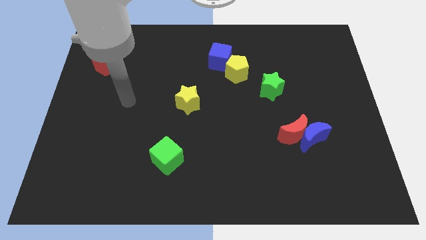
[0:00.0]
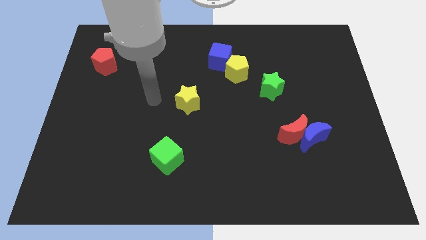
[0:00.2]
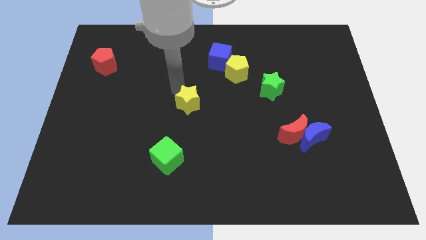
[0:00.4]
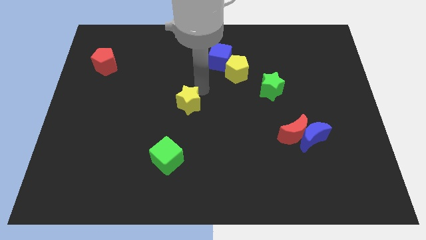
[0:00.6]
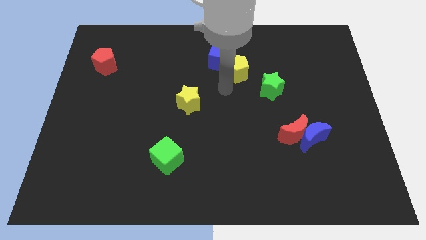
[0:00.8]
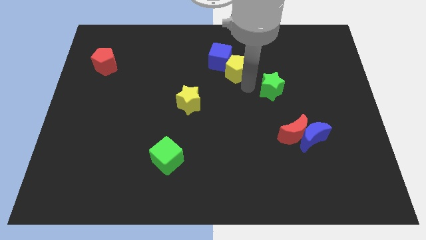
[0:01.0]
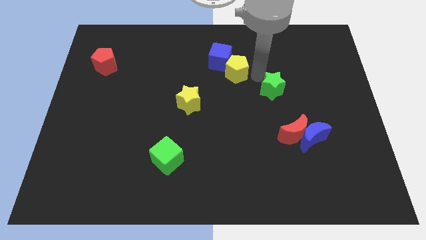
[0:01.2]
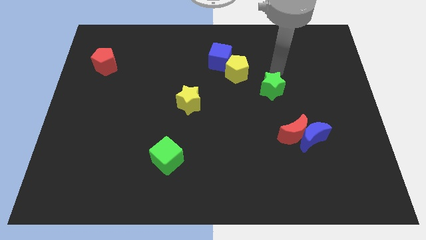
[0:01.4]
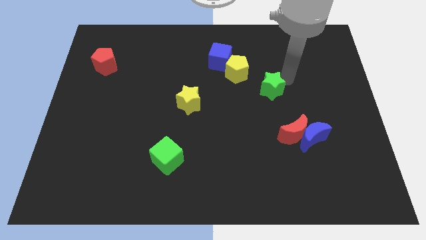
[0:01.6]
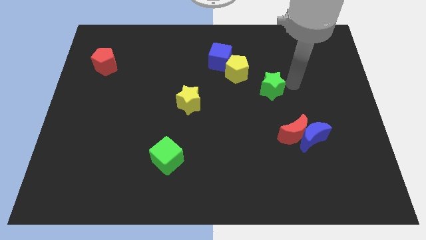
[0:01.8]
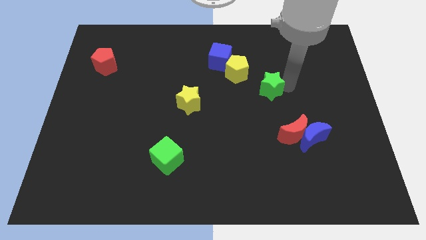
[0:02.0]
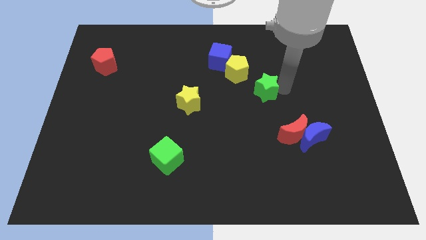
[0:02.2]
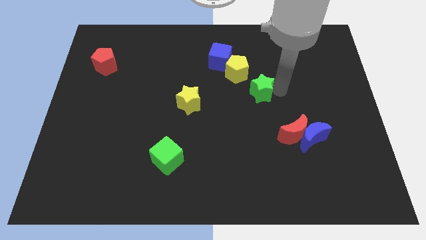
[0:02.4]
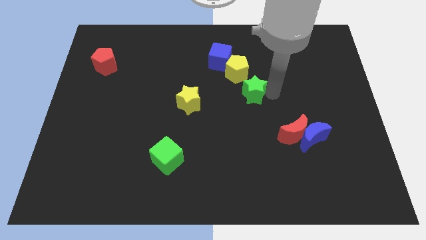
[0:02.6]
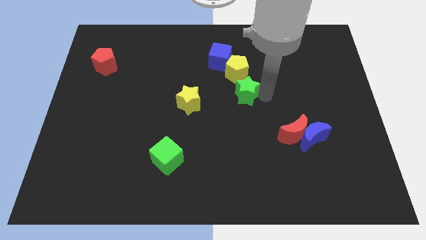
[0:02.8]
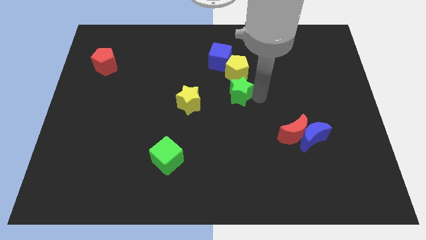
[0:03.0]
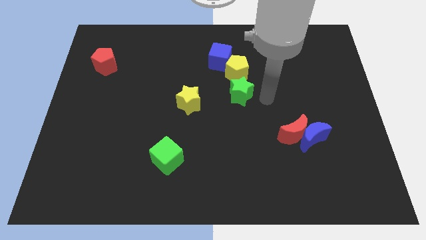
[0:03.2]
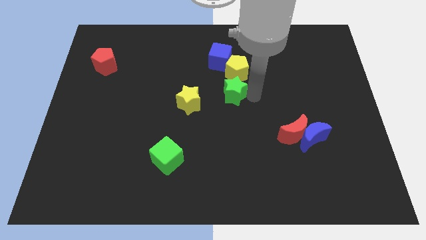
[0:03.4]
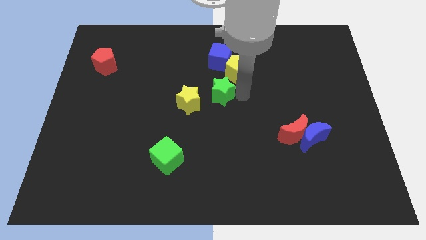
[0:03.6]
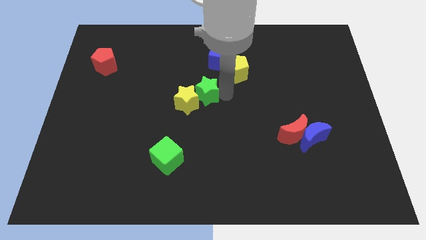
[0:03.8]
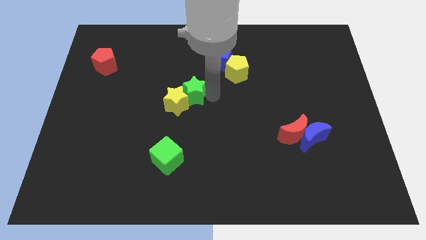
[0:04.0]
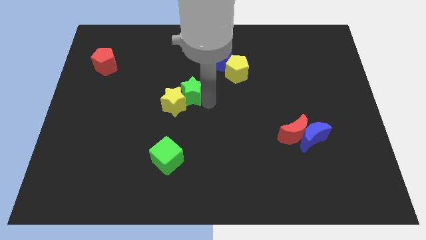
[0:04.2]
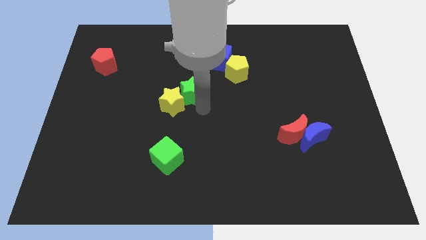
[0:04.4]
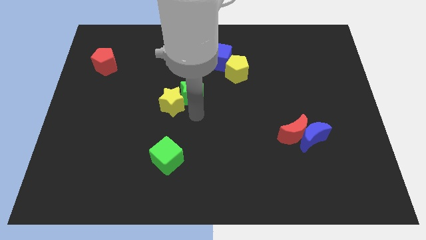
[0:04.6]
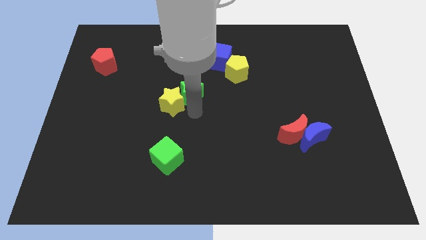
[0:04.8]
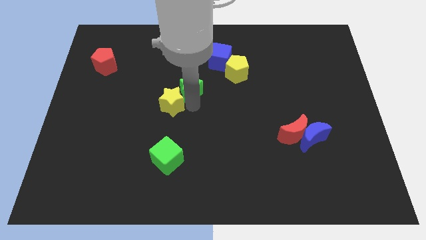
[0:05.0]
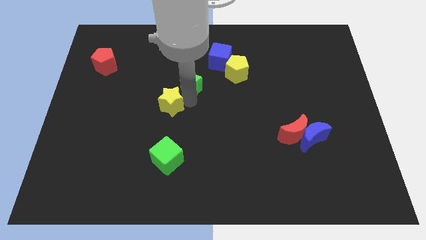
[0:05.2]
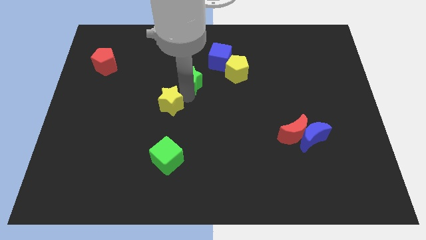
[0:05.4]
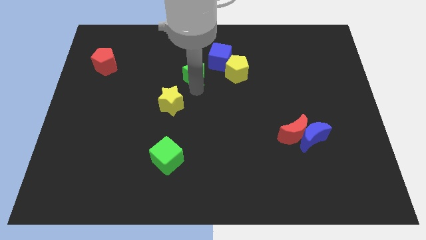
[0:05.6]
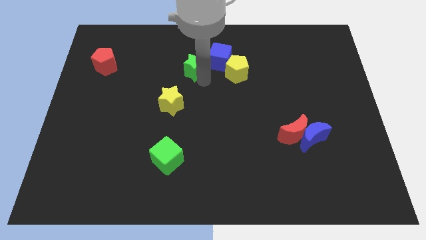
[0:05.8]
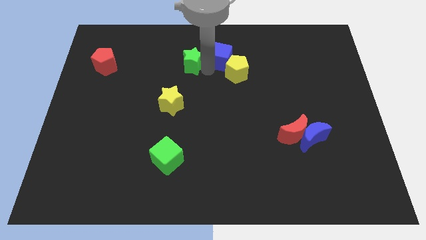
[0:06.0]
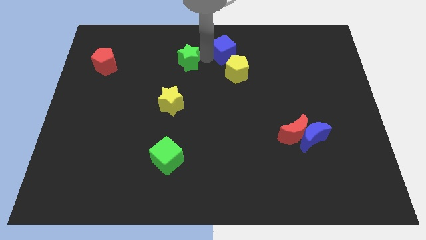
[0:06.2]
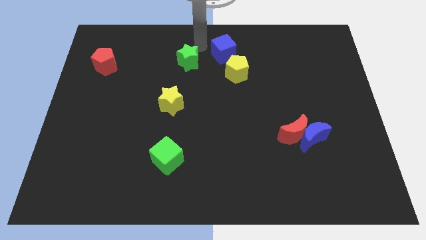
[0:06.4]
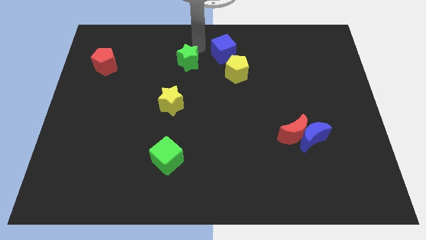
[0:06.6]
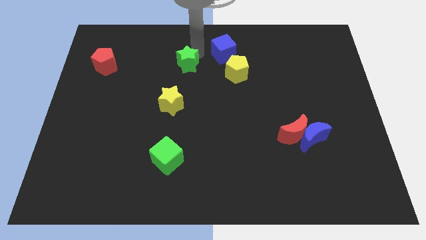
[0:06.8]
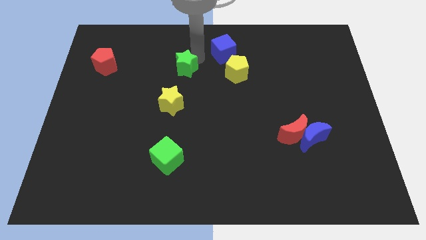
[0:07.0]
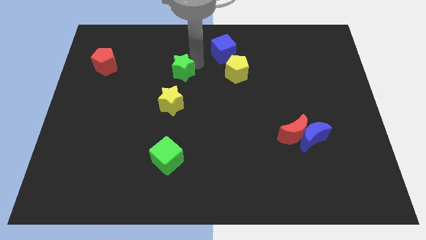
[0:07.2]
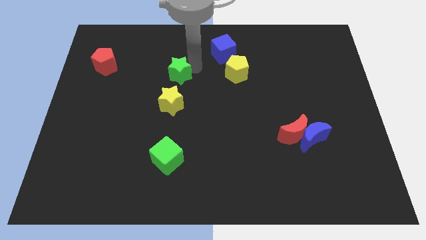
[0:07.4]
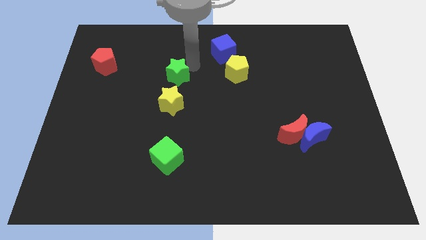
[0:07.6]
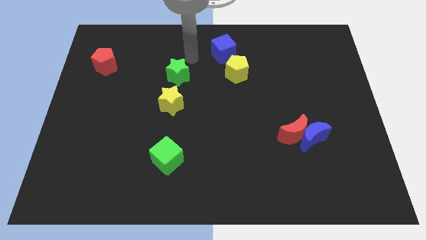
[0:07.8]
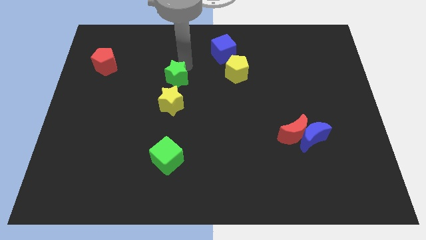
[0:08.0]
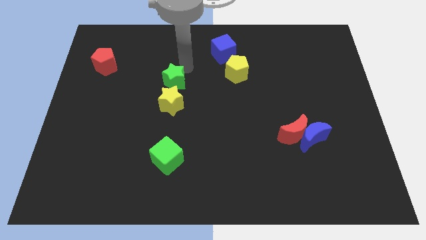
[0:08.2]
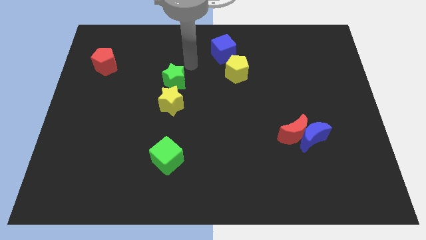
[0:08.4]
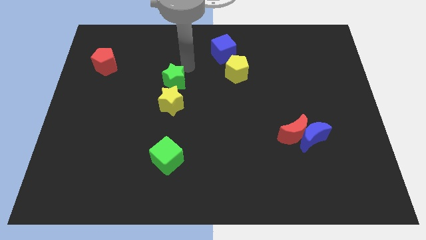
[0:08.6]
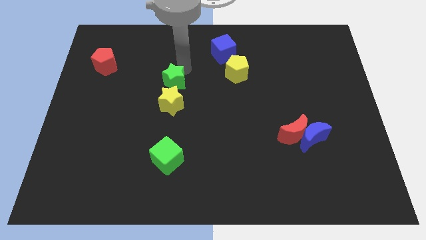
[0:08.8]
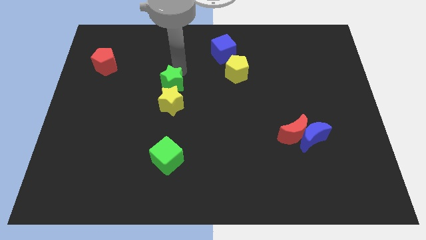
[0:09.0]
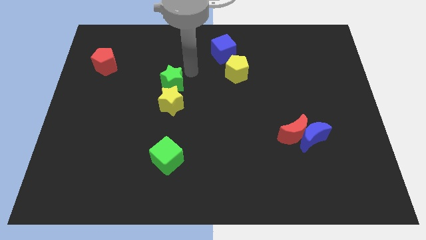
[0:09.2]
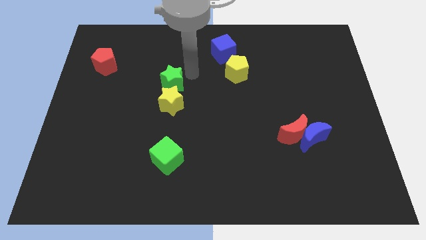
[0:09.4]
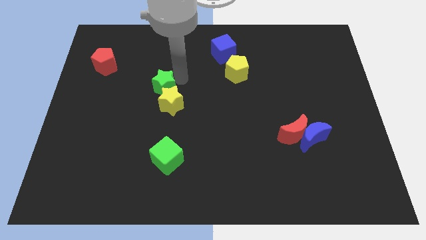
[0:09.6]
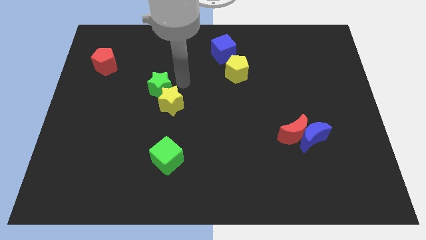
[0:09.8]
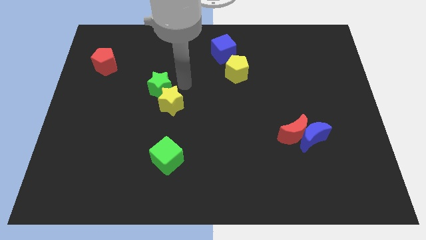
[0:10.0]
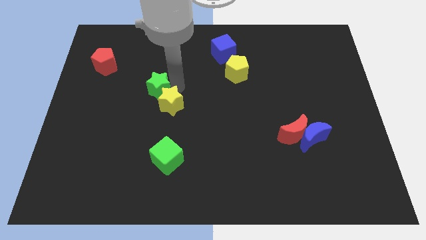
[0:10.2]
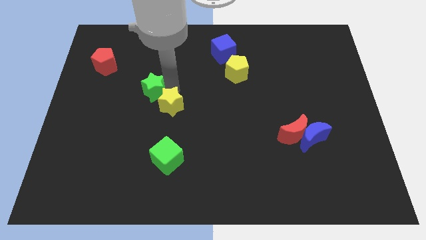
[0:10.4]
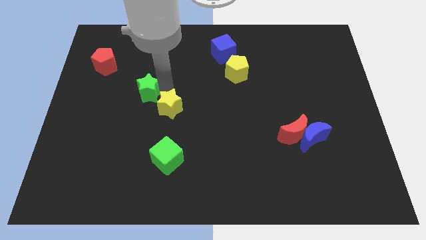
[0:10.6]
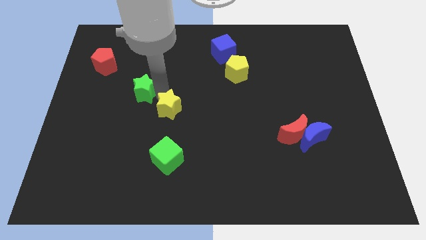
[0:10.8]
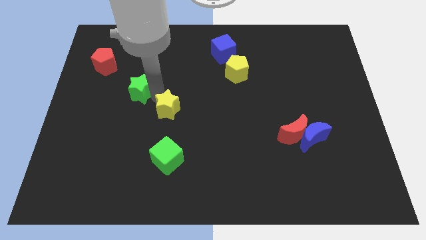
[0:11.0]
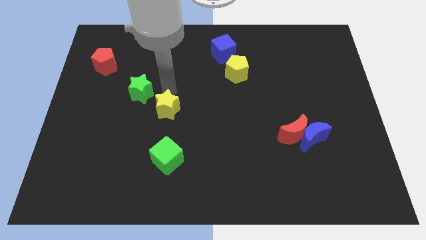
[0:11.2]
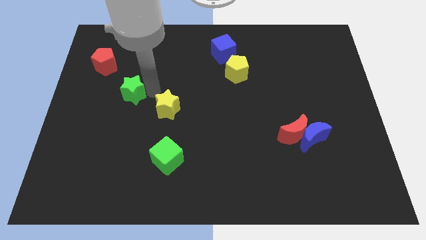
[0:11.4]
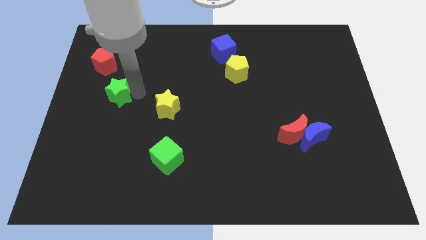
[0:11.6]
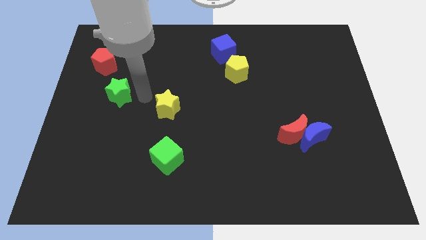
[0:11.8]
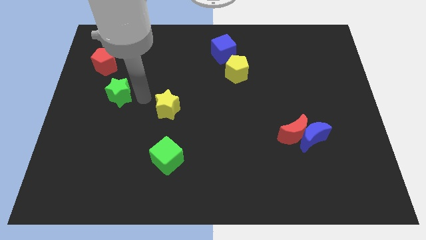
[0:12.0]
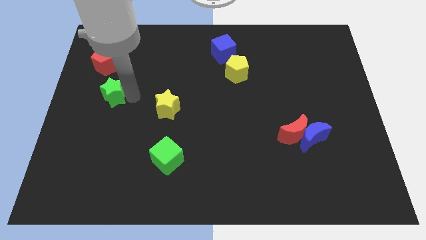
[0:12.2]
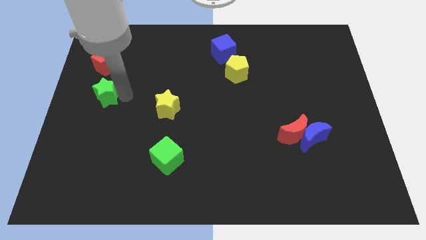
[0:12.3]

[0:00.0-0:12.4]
move the green star to the left side of the board

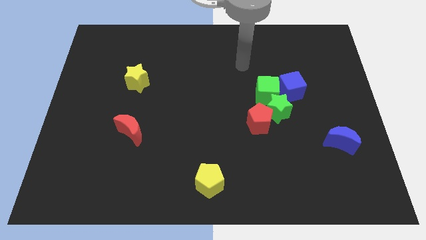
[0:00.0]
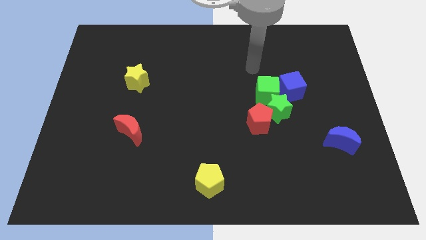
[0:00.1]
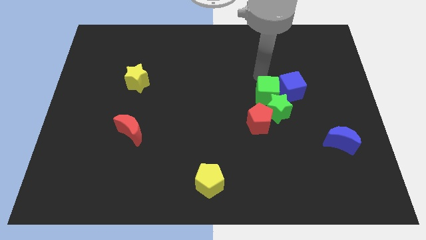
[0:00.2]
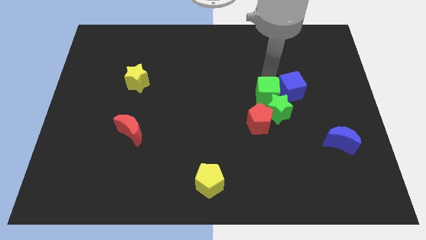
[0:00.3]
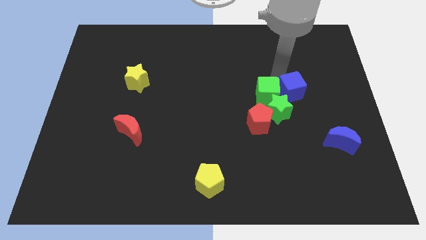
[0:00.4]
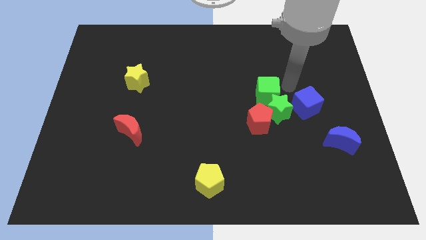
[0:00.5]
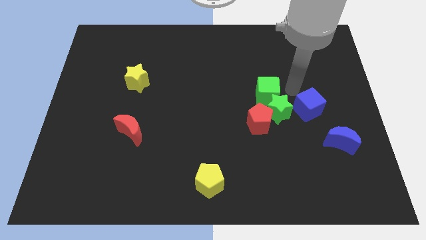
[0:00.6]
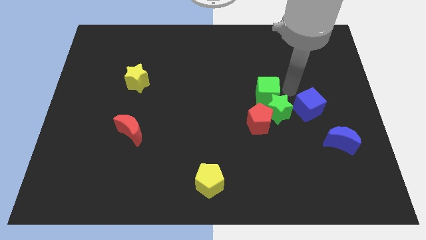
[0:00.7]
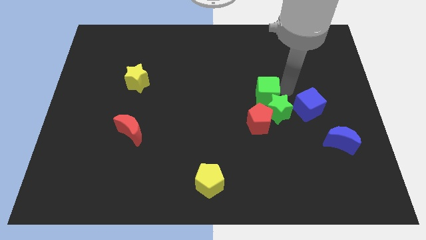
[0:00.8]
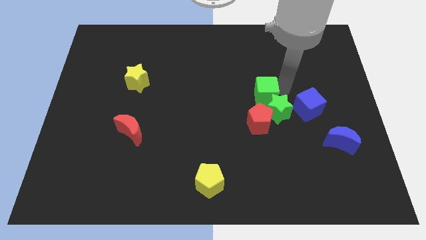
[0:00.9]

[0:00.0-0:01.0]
put the green cube to the middle of the board
